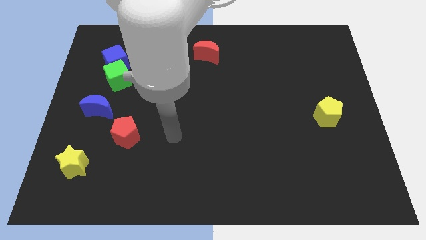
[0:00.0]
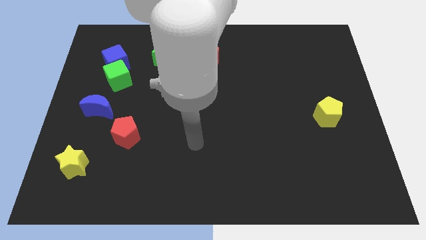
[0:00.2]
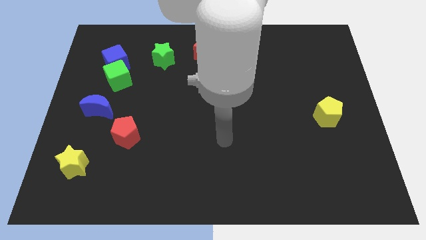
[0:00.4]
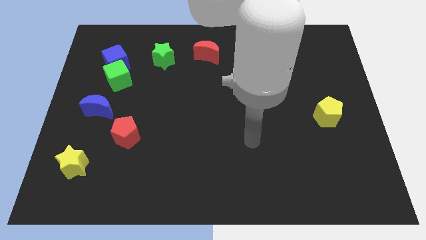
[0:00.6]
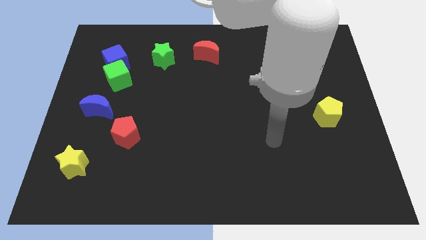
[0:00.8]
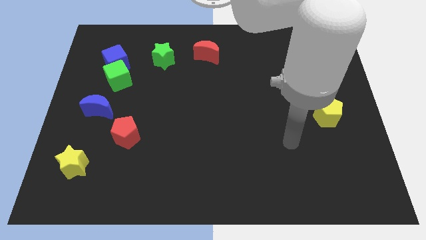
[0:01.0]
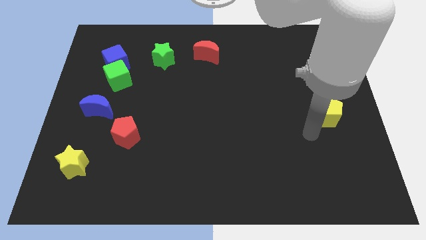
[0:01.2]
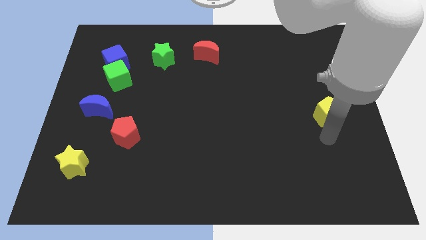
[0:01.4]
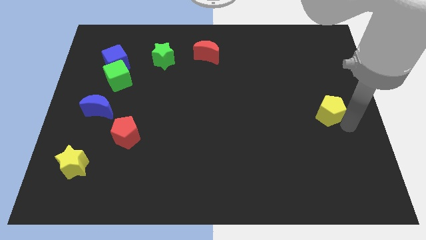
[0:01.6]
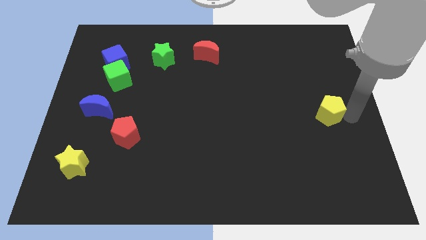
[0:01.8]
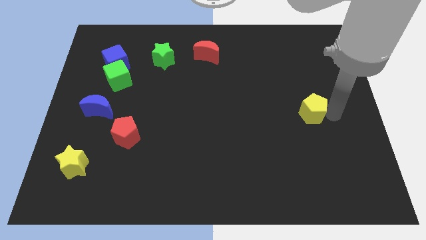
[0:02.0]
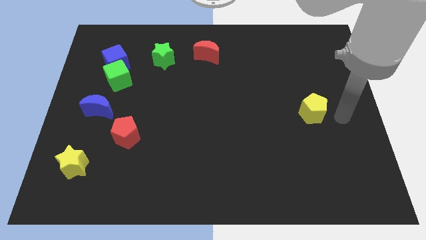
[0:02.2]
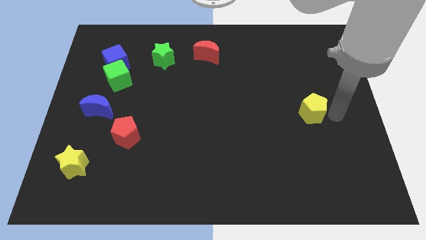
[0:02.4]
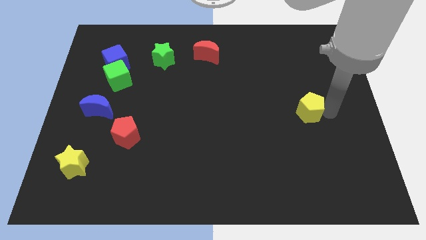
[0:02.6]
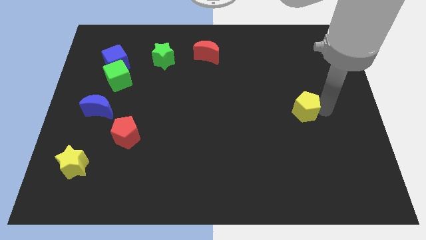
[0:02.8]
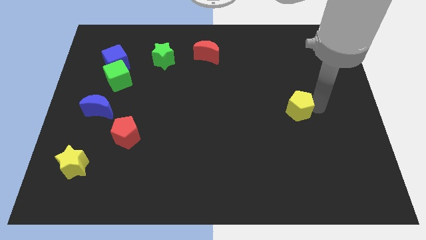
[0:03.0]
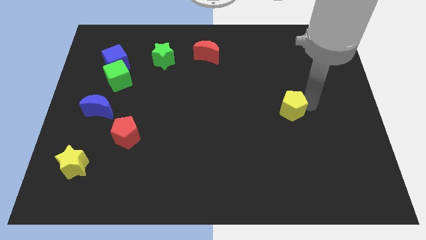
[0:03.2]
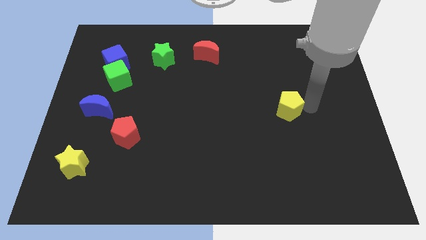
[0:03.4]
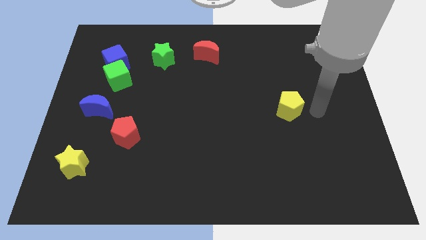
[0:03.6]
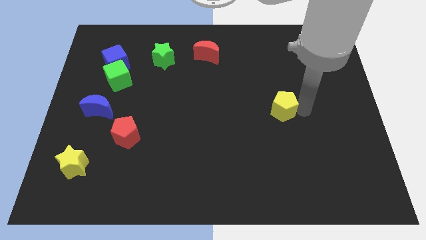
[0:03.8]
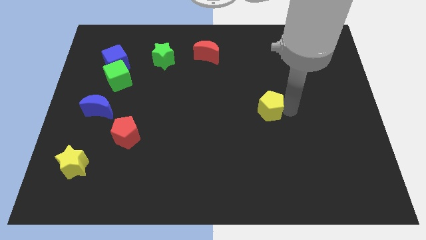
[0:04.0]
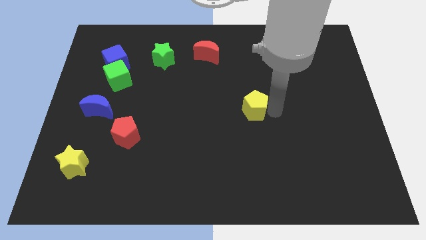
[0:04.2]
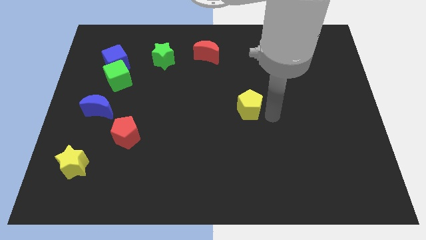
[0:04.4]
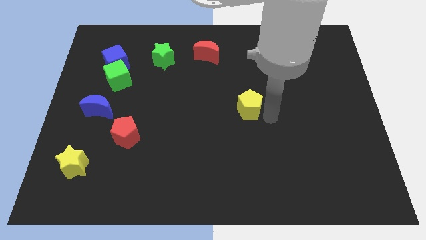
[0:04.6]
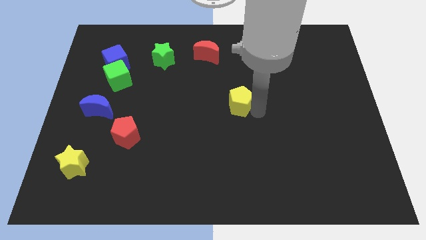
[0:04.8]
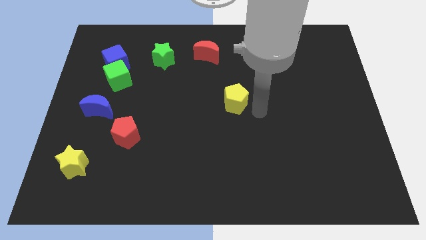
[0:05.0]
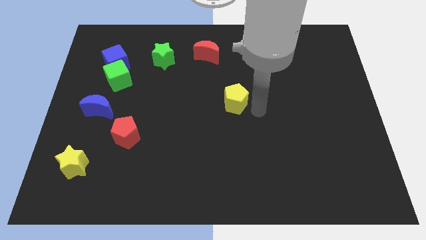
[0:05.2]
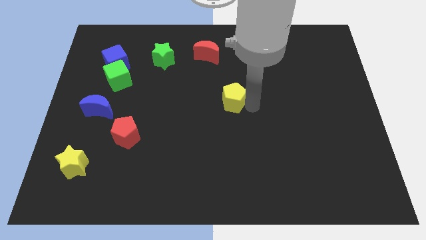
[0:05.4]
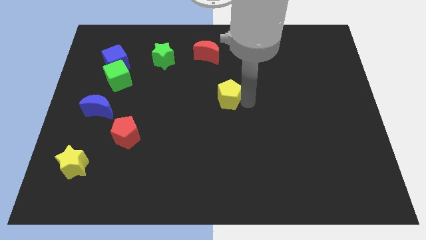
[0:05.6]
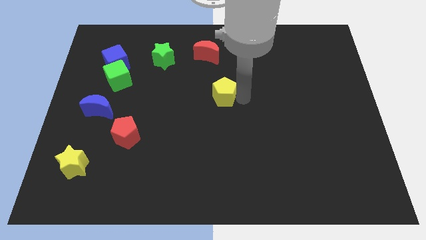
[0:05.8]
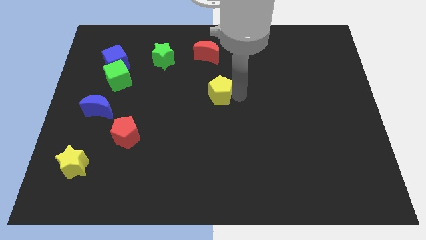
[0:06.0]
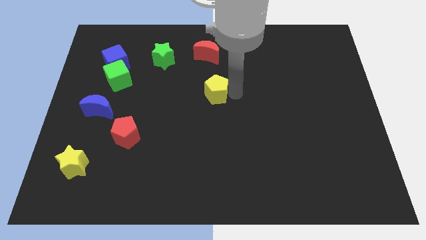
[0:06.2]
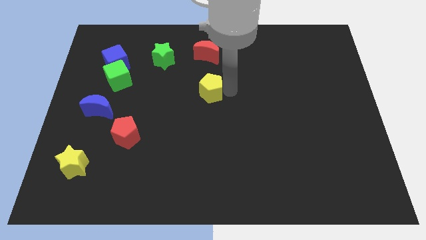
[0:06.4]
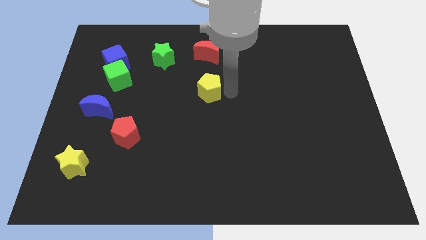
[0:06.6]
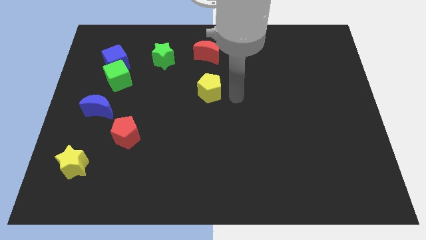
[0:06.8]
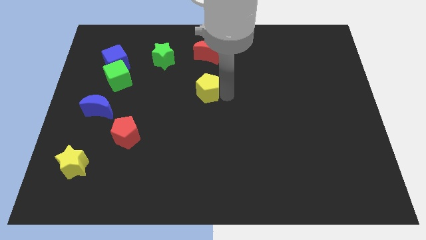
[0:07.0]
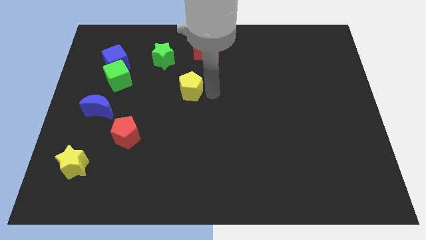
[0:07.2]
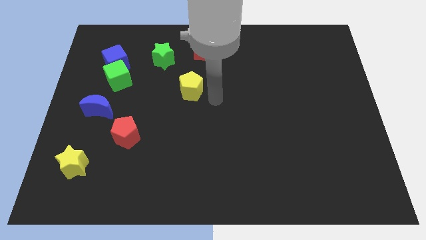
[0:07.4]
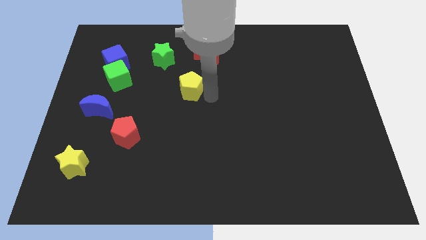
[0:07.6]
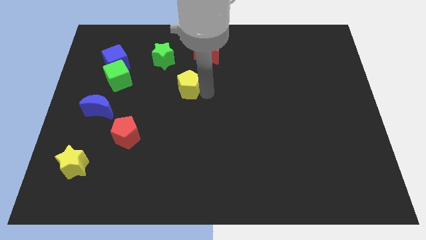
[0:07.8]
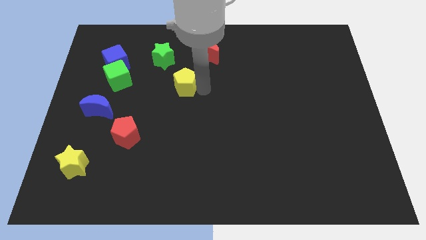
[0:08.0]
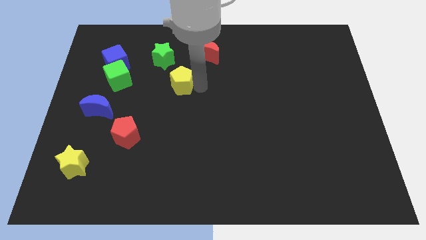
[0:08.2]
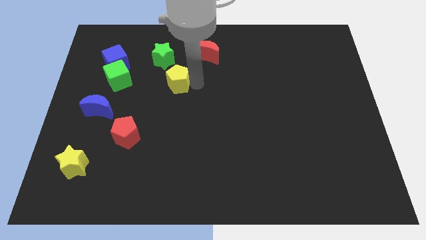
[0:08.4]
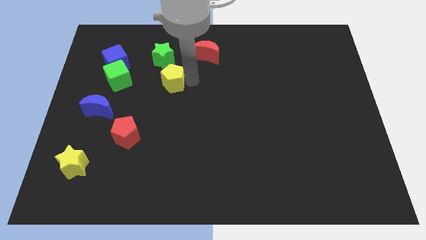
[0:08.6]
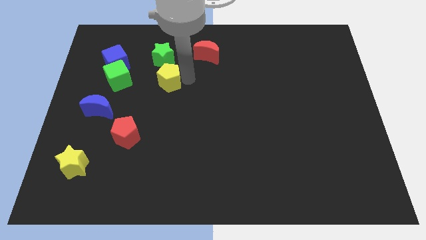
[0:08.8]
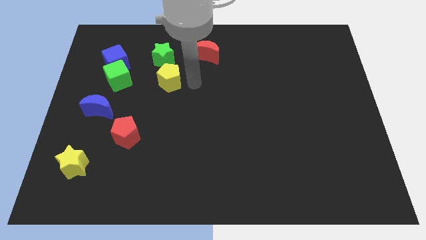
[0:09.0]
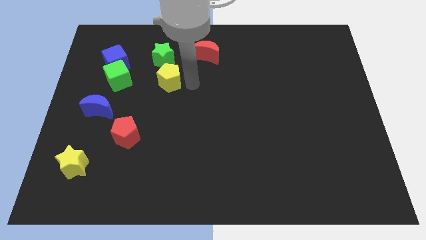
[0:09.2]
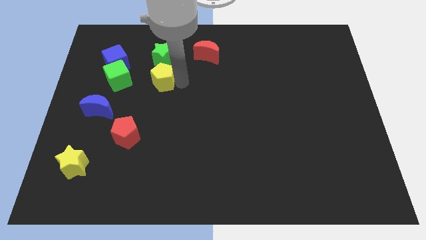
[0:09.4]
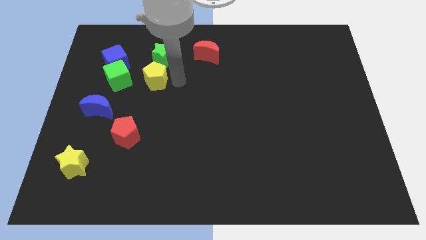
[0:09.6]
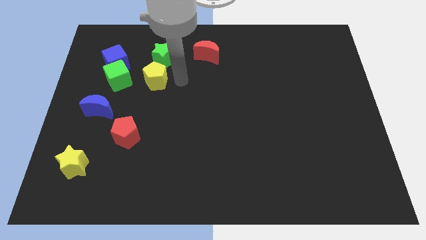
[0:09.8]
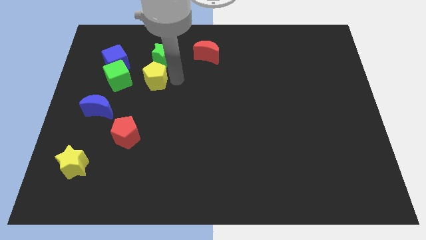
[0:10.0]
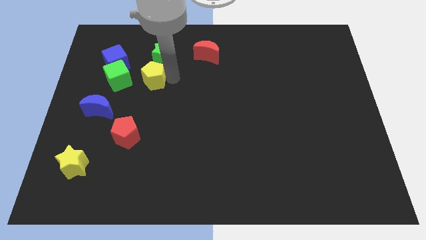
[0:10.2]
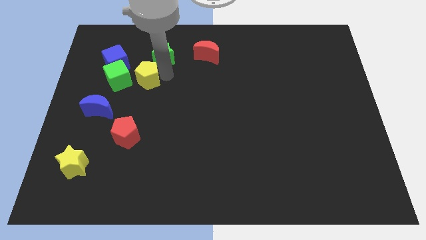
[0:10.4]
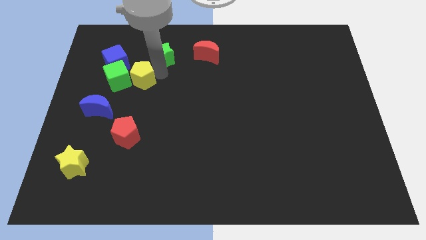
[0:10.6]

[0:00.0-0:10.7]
push the yellow pentagon towards the green cube

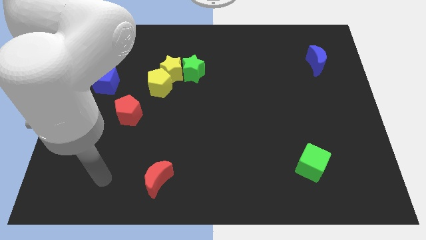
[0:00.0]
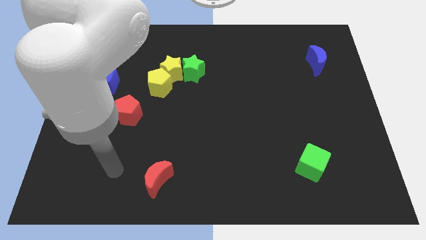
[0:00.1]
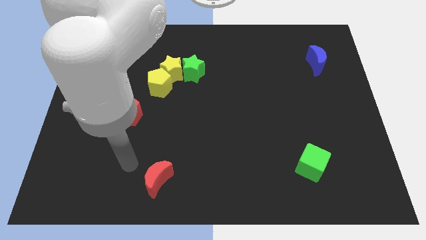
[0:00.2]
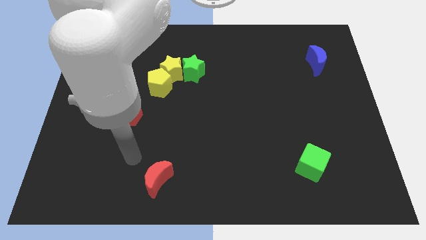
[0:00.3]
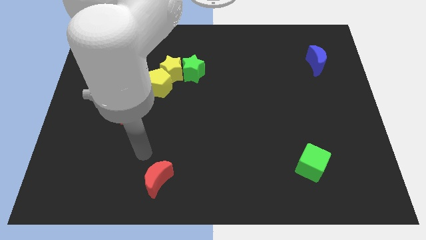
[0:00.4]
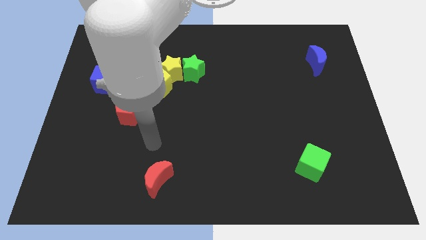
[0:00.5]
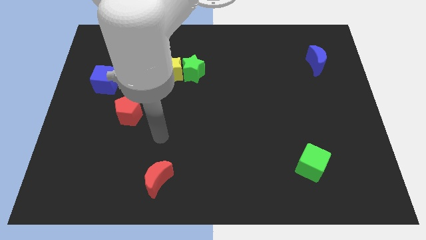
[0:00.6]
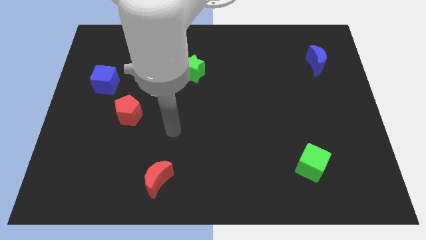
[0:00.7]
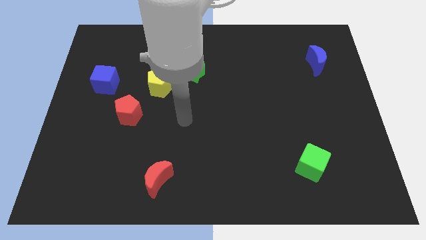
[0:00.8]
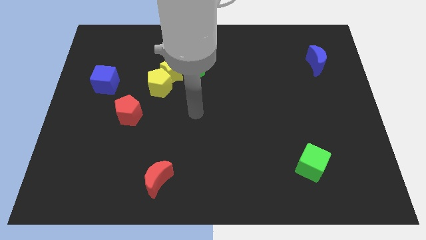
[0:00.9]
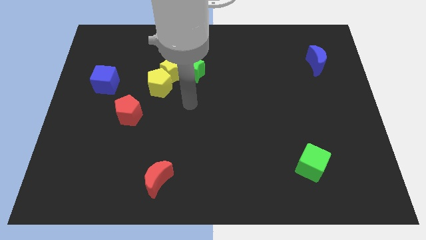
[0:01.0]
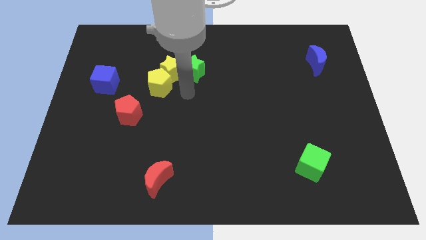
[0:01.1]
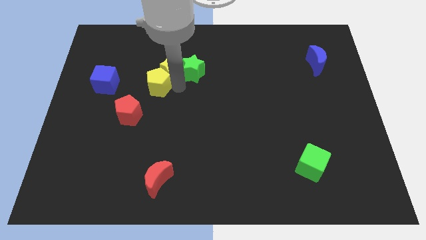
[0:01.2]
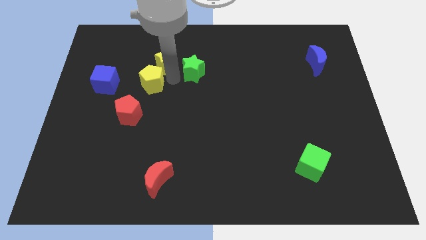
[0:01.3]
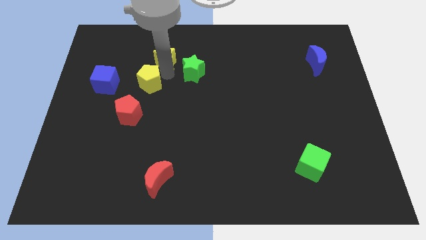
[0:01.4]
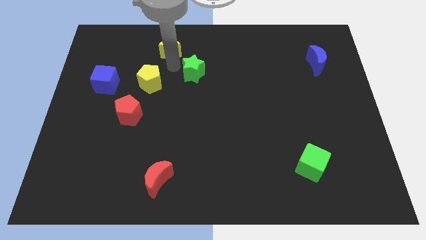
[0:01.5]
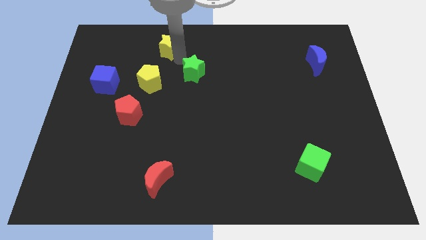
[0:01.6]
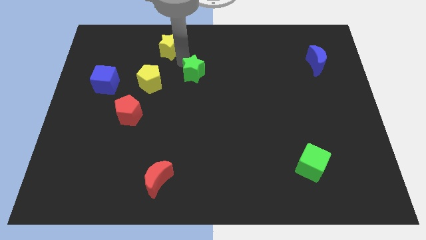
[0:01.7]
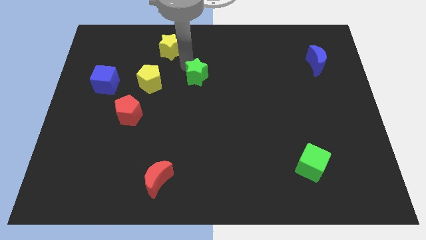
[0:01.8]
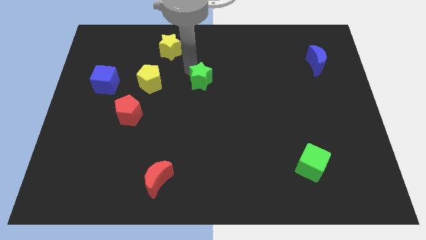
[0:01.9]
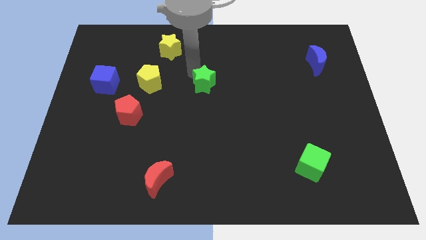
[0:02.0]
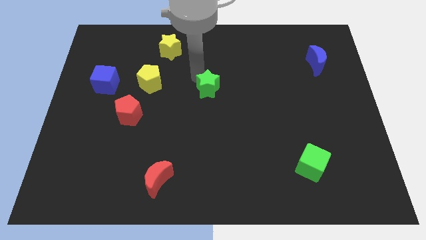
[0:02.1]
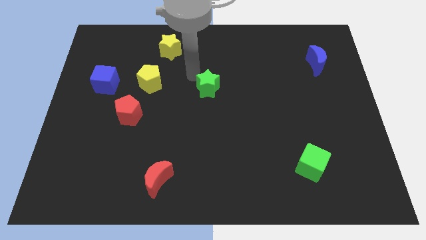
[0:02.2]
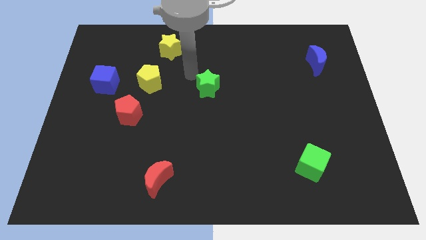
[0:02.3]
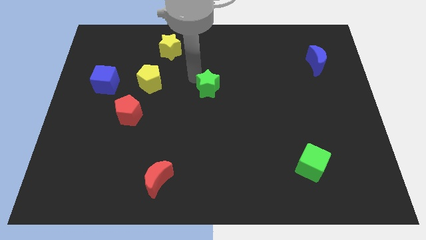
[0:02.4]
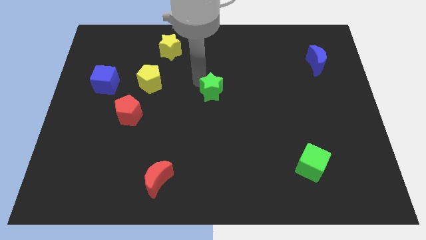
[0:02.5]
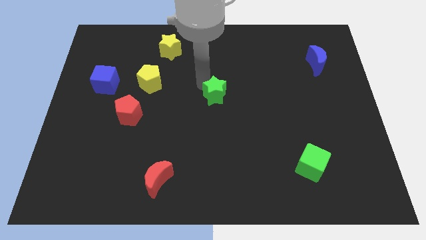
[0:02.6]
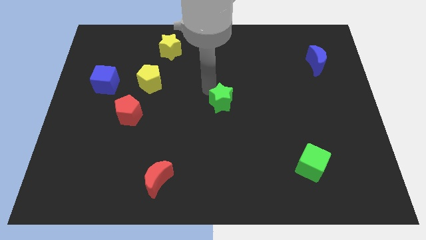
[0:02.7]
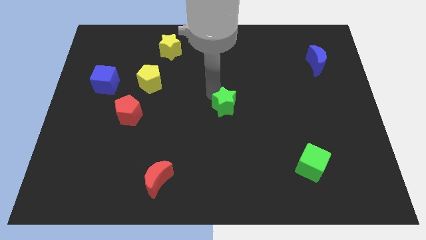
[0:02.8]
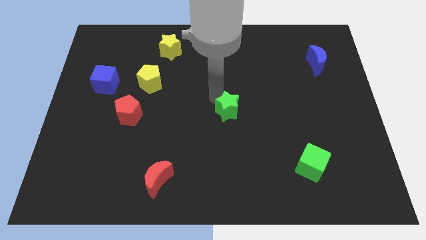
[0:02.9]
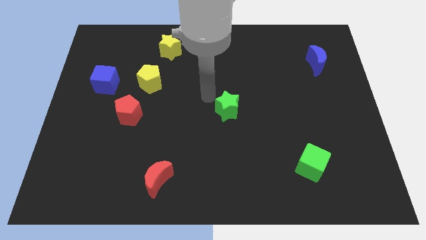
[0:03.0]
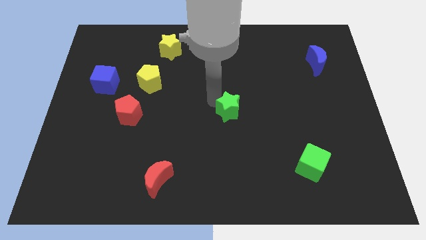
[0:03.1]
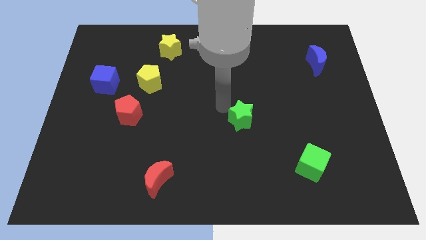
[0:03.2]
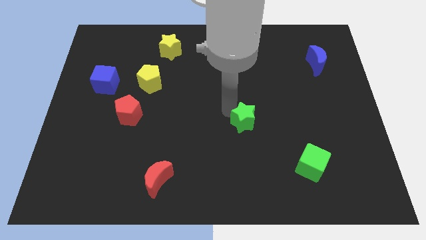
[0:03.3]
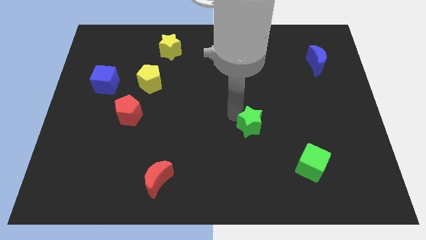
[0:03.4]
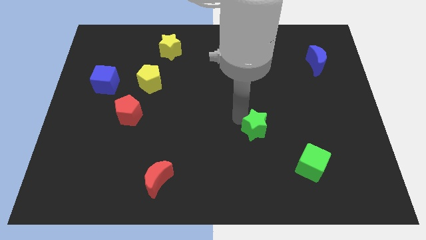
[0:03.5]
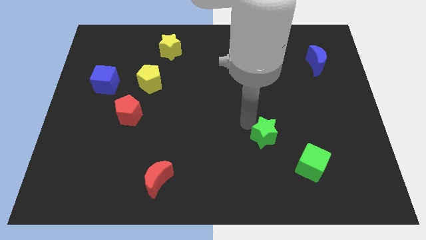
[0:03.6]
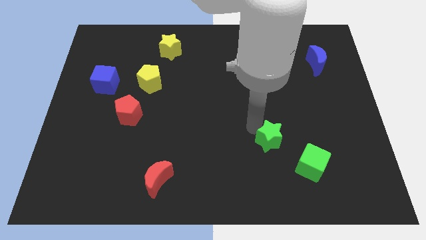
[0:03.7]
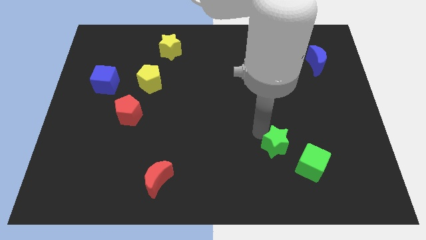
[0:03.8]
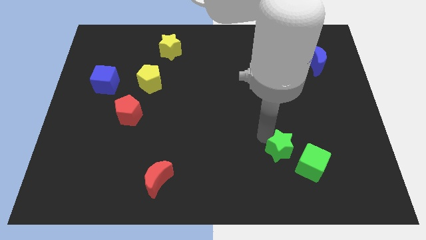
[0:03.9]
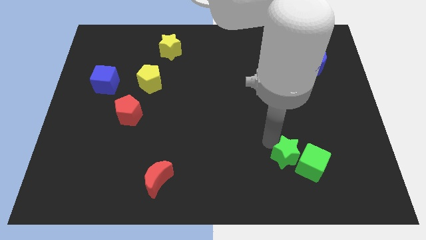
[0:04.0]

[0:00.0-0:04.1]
push the green star close to the green cube
